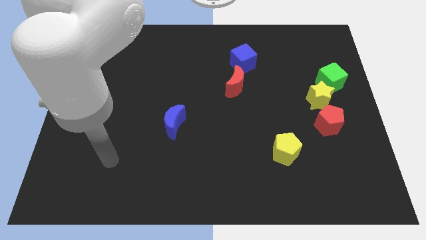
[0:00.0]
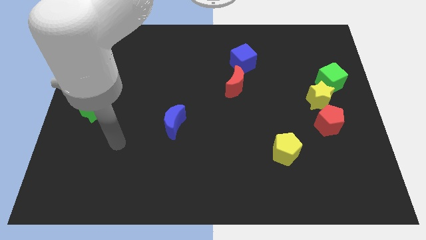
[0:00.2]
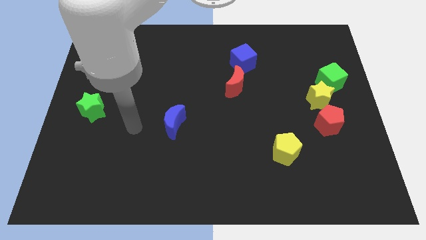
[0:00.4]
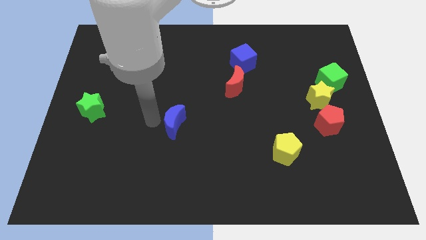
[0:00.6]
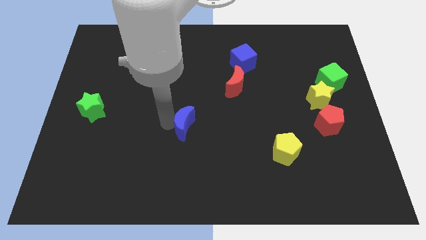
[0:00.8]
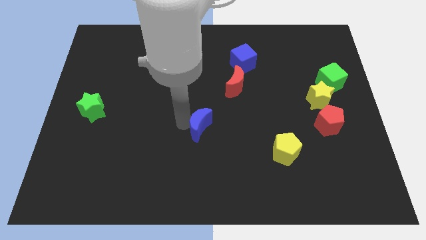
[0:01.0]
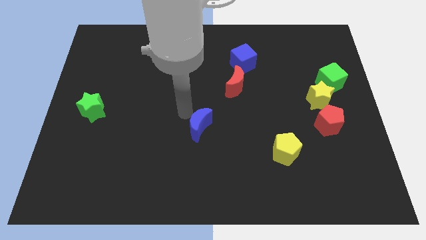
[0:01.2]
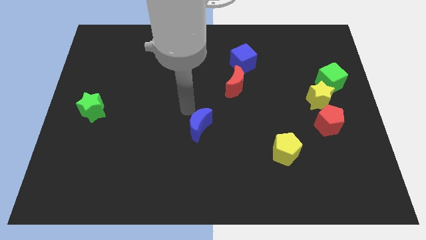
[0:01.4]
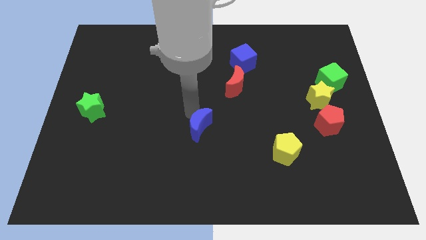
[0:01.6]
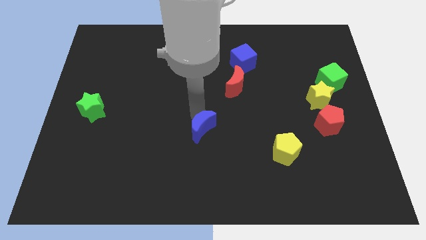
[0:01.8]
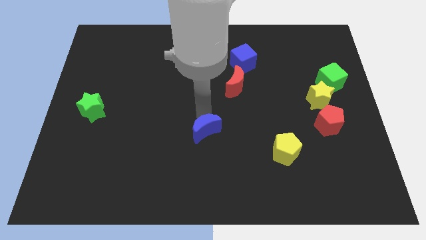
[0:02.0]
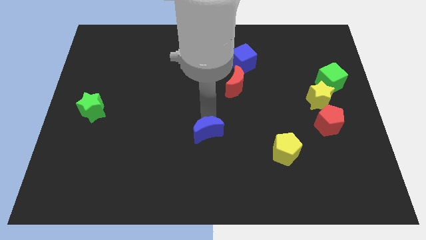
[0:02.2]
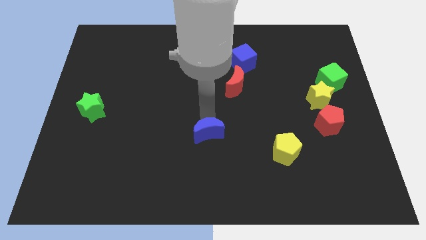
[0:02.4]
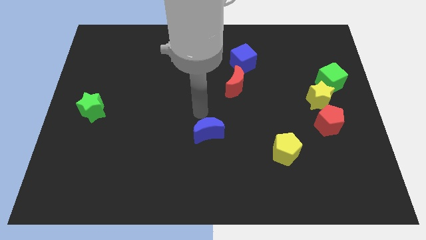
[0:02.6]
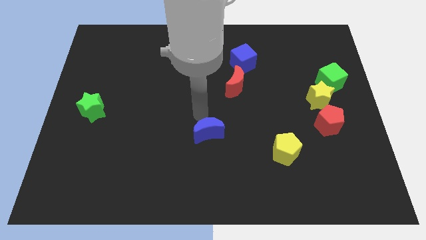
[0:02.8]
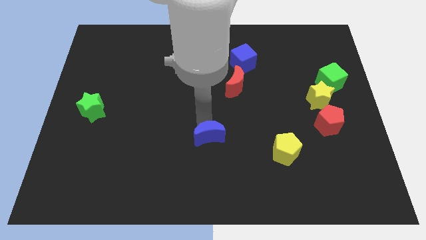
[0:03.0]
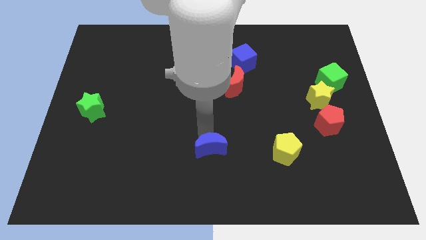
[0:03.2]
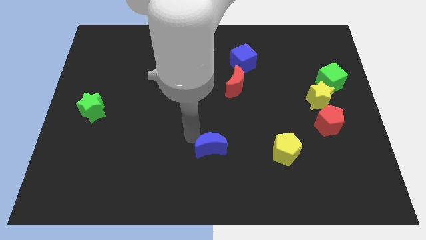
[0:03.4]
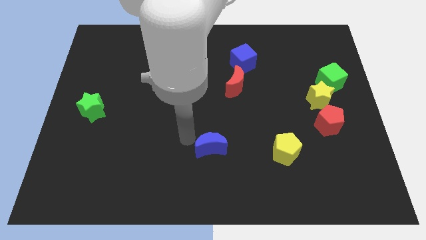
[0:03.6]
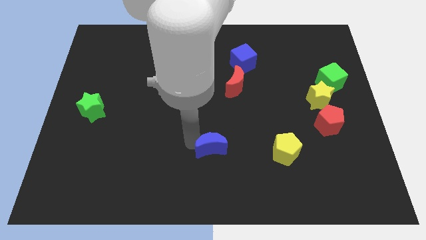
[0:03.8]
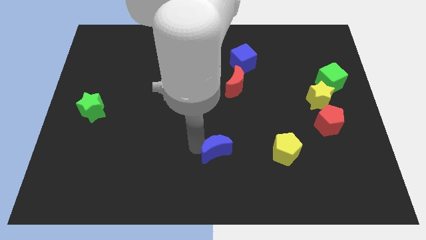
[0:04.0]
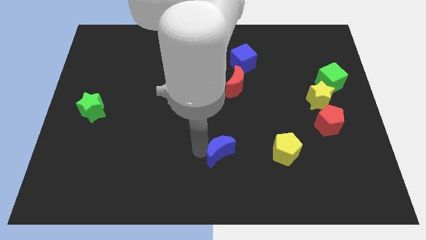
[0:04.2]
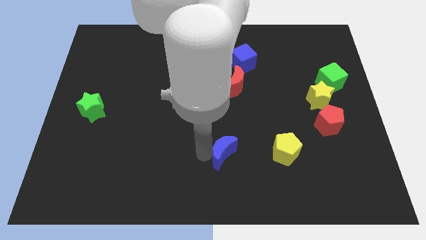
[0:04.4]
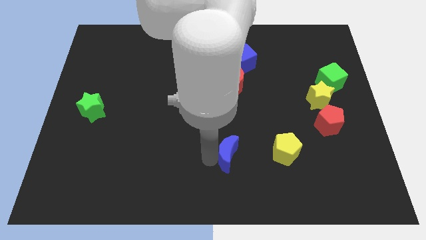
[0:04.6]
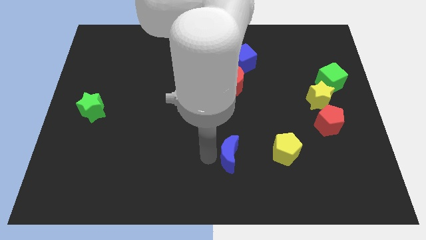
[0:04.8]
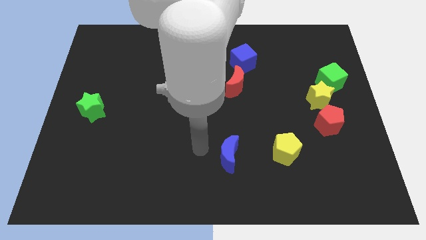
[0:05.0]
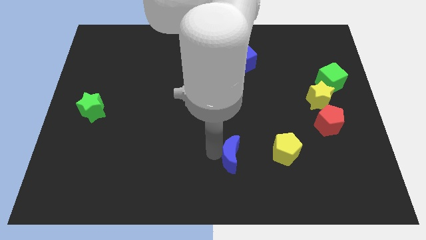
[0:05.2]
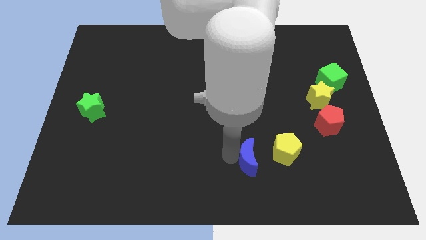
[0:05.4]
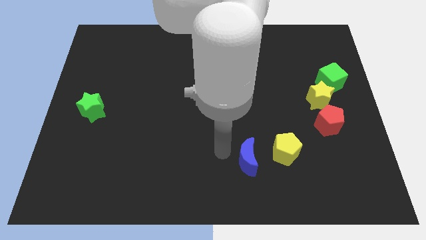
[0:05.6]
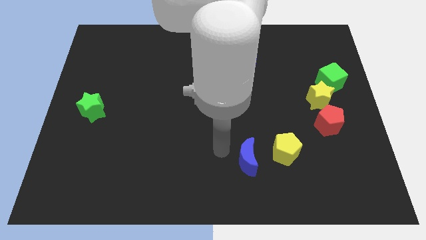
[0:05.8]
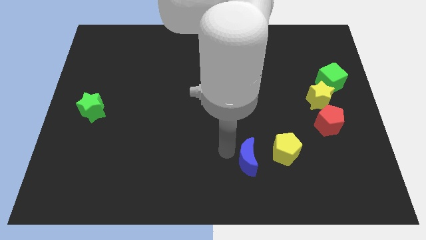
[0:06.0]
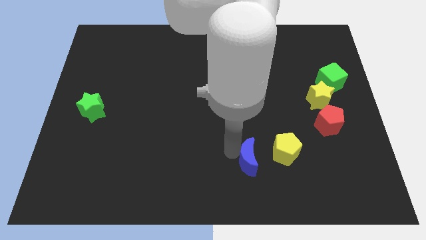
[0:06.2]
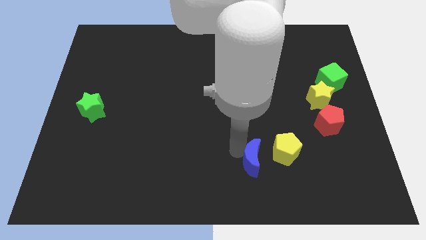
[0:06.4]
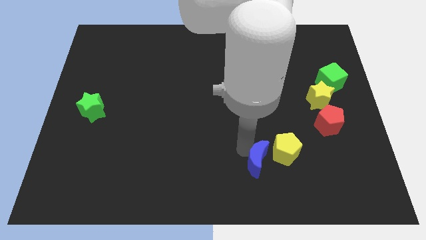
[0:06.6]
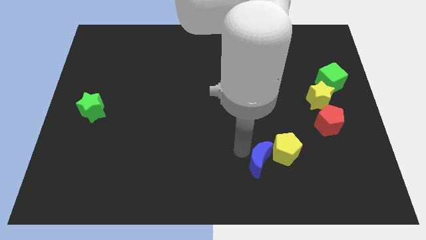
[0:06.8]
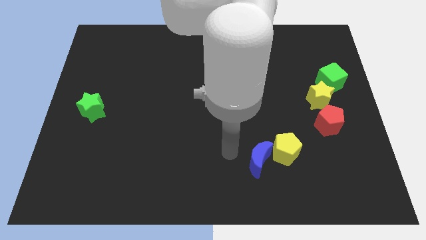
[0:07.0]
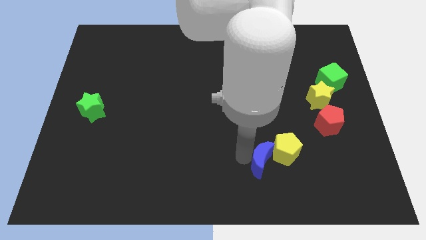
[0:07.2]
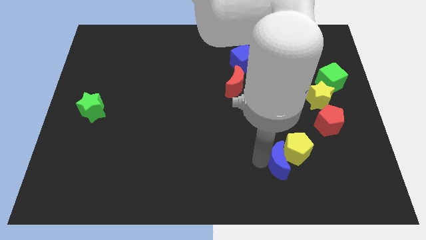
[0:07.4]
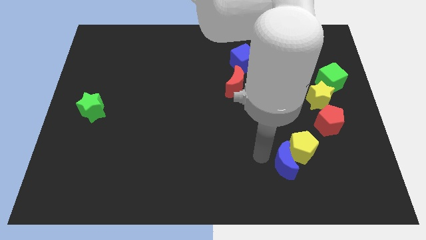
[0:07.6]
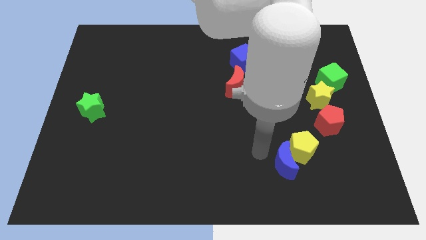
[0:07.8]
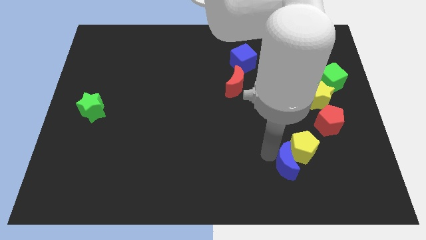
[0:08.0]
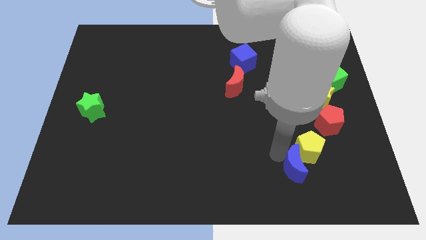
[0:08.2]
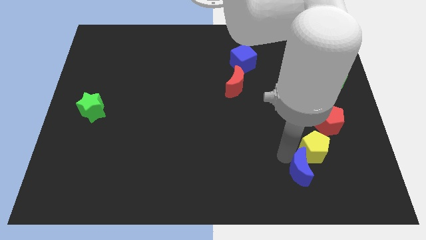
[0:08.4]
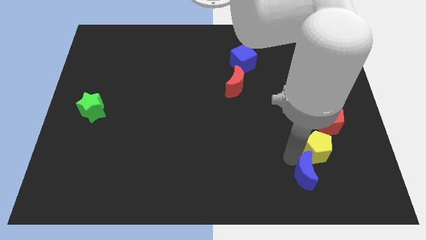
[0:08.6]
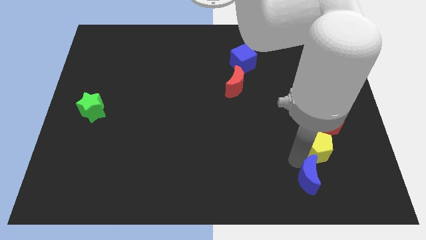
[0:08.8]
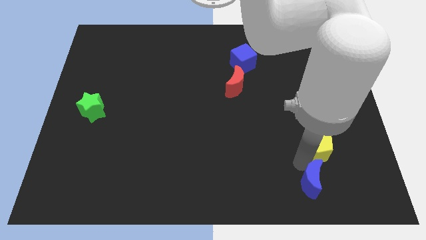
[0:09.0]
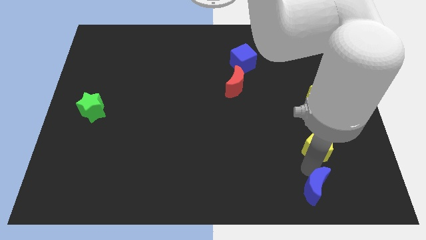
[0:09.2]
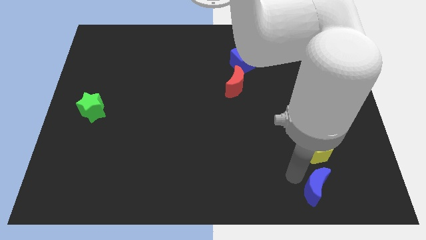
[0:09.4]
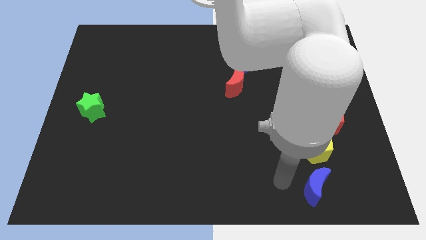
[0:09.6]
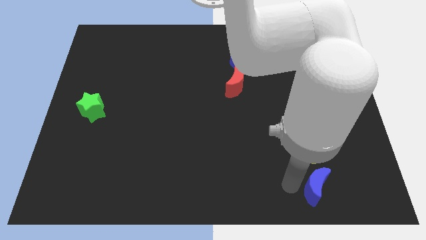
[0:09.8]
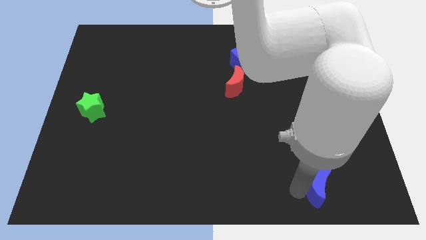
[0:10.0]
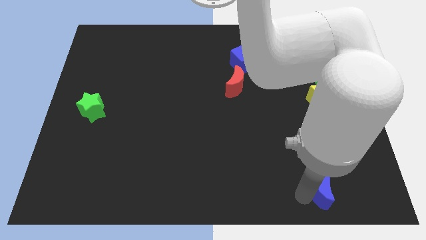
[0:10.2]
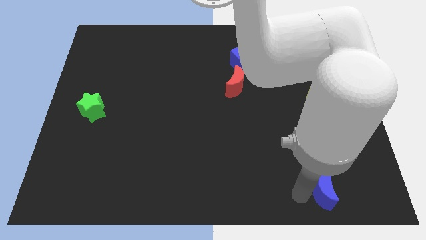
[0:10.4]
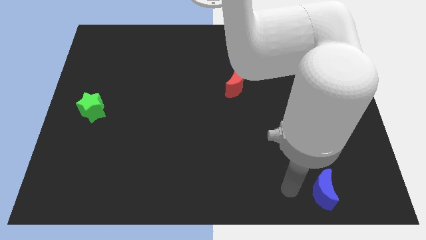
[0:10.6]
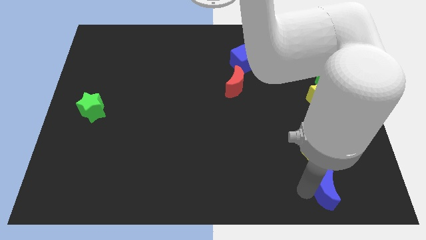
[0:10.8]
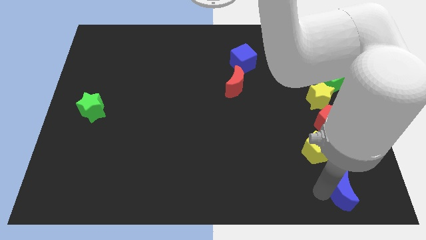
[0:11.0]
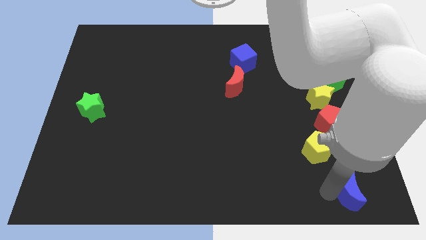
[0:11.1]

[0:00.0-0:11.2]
slide the blue moon to the bottom right corner

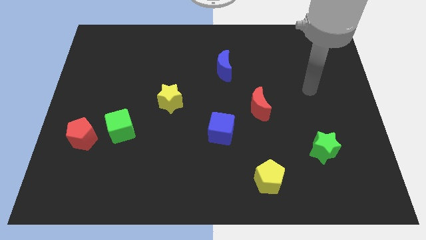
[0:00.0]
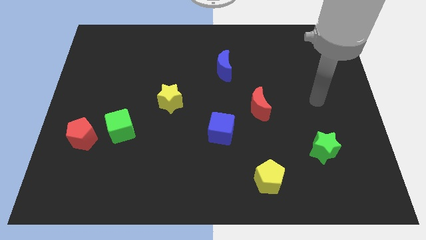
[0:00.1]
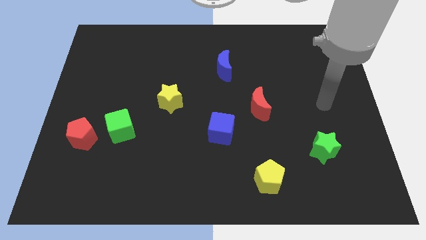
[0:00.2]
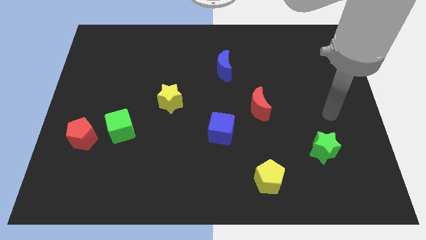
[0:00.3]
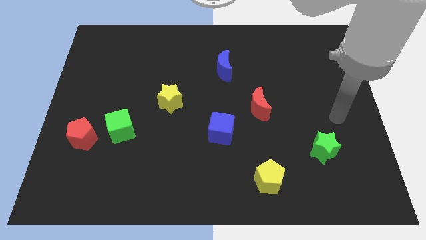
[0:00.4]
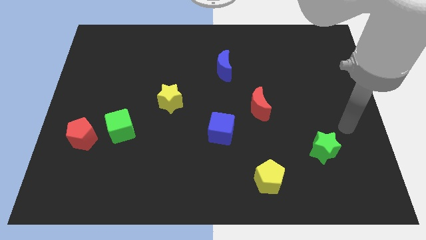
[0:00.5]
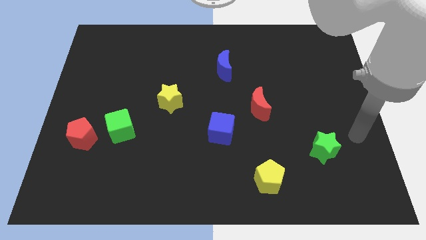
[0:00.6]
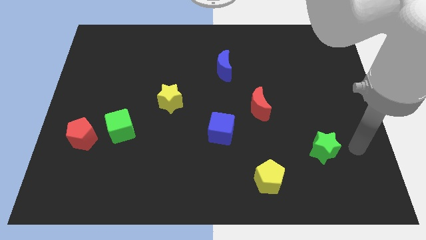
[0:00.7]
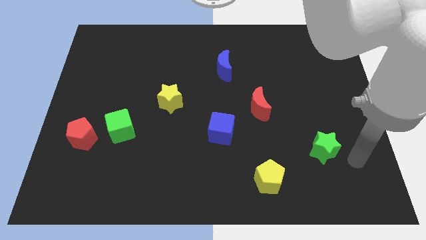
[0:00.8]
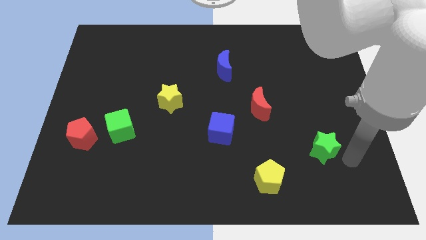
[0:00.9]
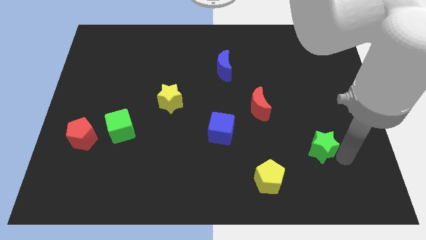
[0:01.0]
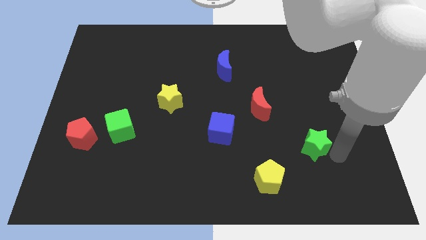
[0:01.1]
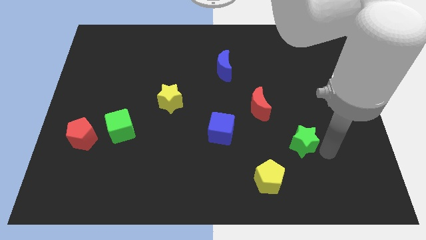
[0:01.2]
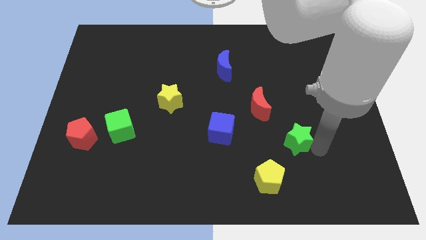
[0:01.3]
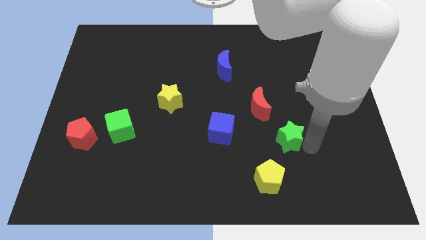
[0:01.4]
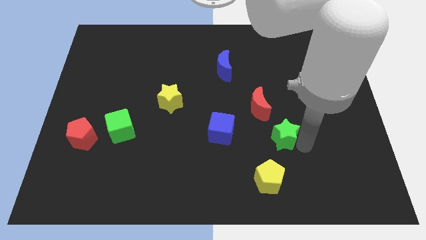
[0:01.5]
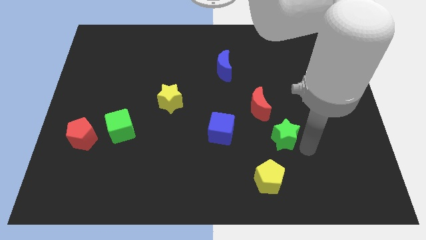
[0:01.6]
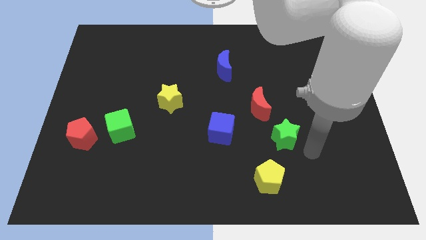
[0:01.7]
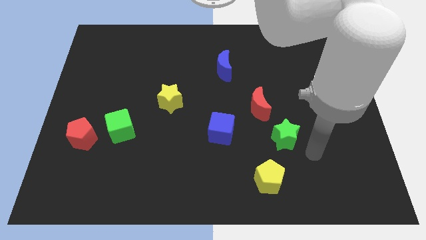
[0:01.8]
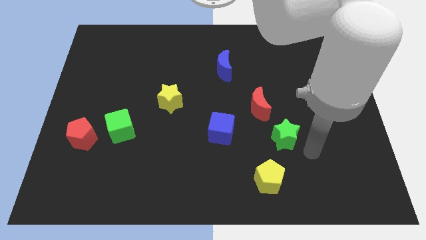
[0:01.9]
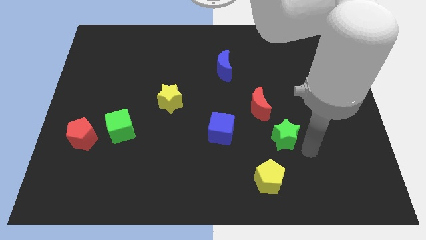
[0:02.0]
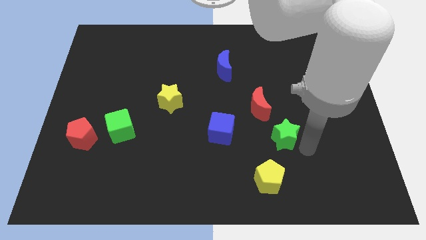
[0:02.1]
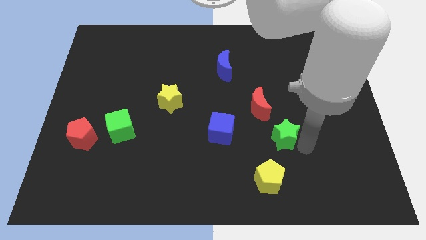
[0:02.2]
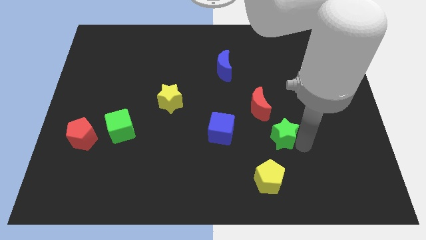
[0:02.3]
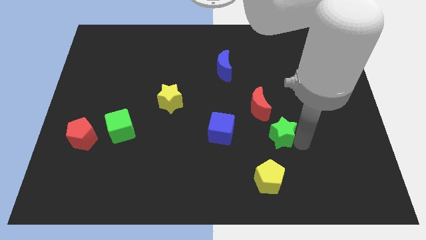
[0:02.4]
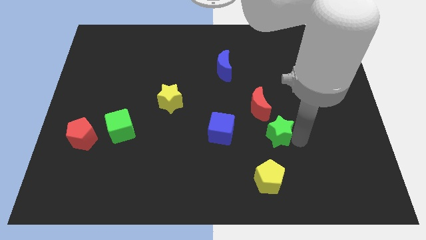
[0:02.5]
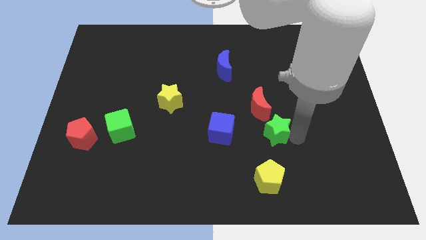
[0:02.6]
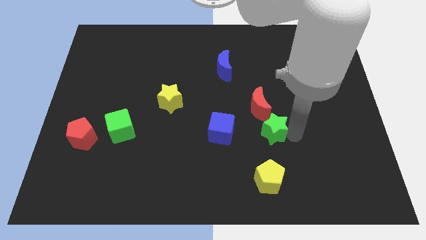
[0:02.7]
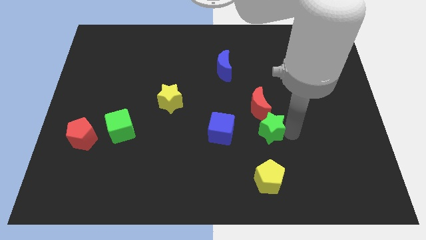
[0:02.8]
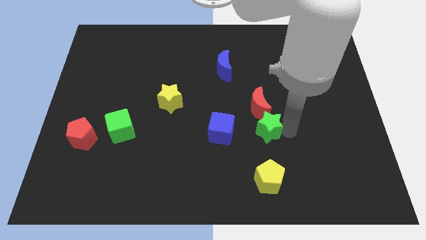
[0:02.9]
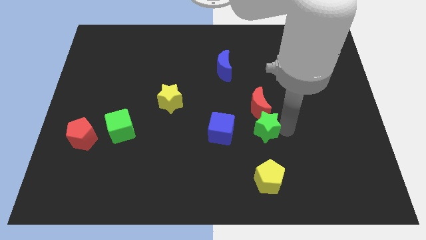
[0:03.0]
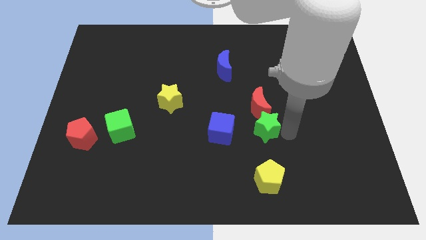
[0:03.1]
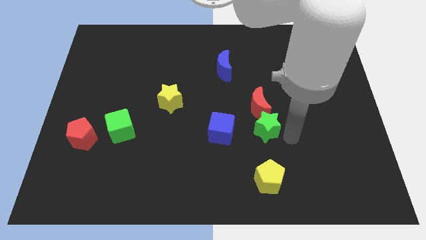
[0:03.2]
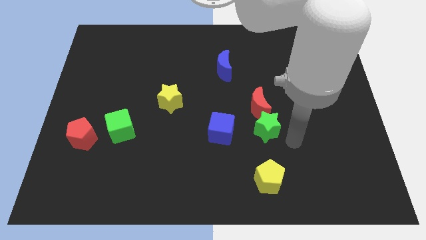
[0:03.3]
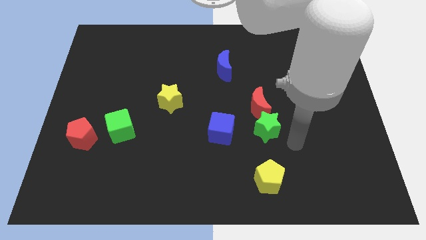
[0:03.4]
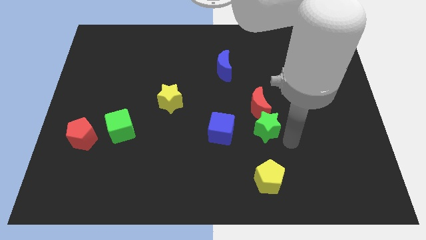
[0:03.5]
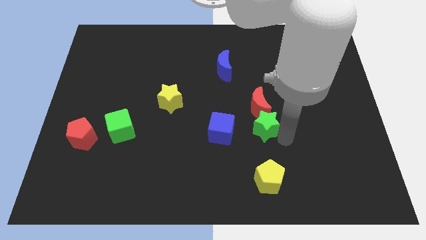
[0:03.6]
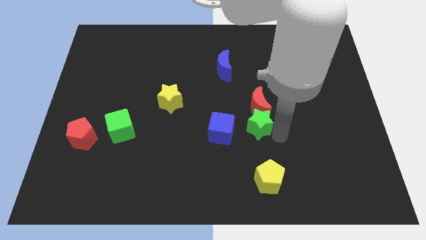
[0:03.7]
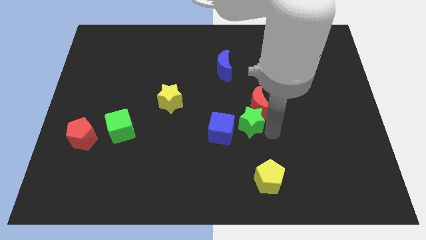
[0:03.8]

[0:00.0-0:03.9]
push the green star to the center of the board
